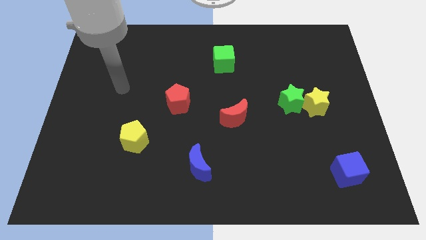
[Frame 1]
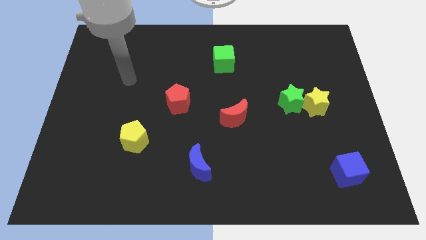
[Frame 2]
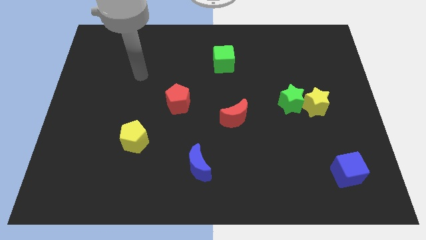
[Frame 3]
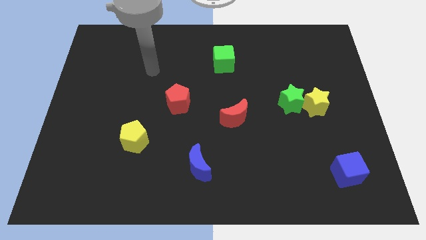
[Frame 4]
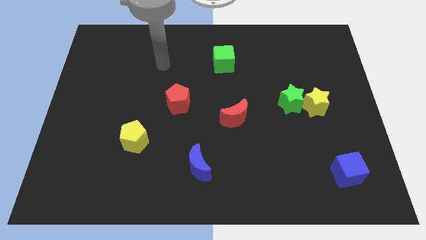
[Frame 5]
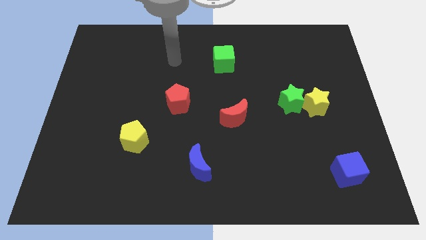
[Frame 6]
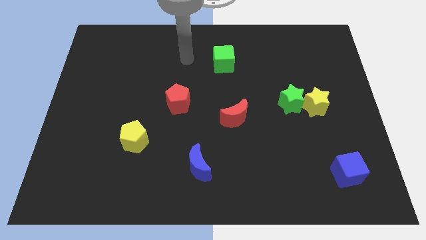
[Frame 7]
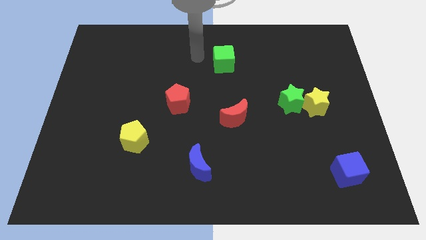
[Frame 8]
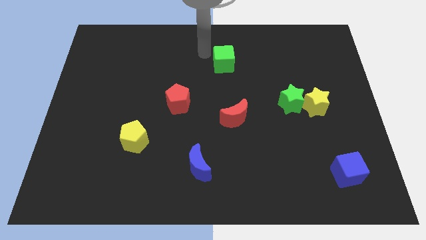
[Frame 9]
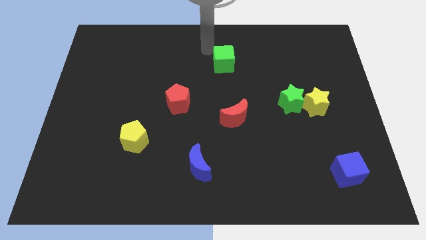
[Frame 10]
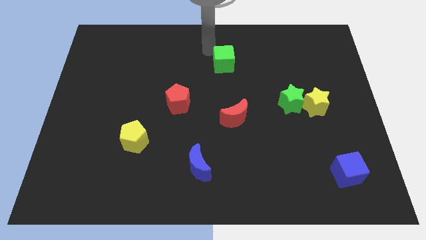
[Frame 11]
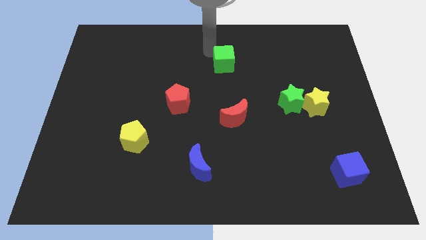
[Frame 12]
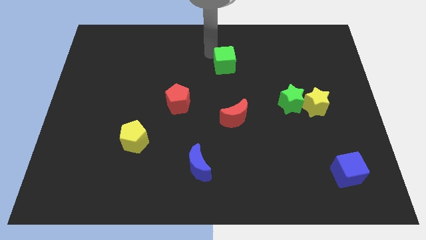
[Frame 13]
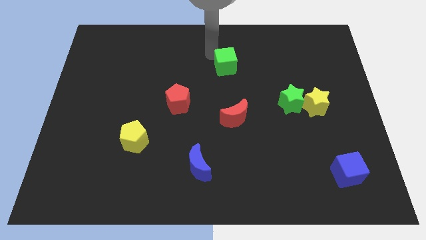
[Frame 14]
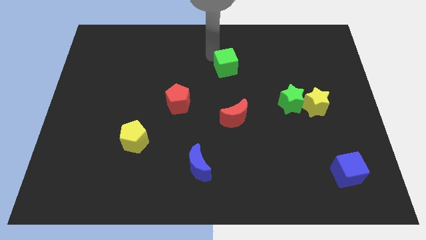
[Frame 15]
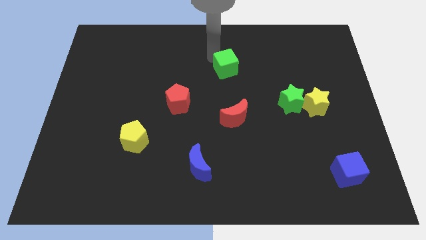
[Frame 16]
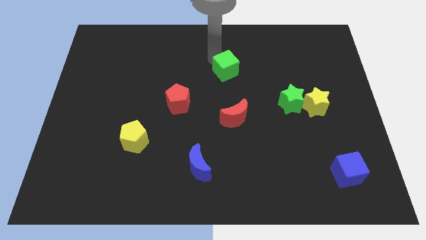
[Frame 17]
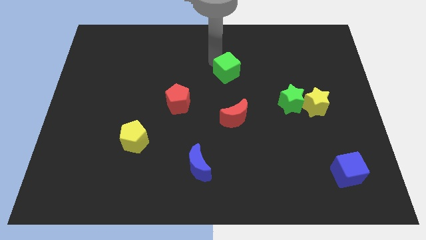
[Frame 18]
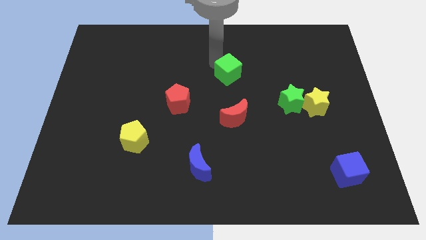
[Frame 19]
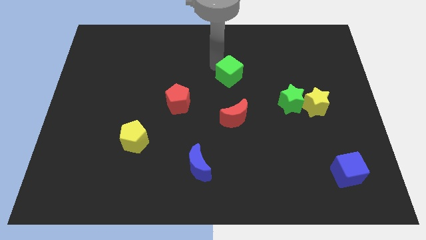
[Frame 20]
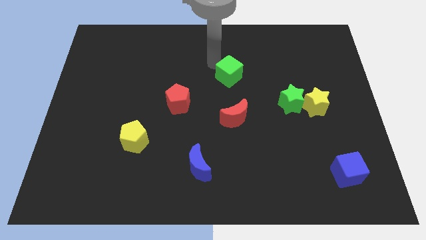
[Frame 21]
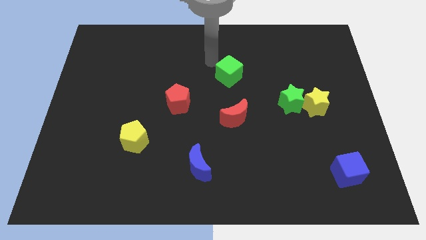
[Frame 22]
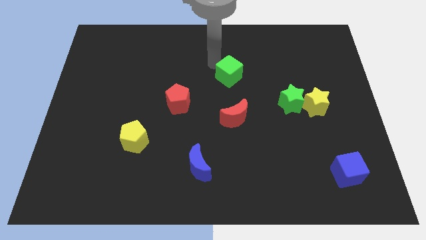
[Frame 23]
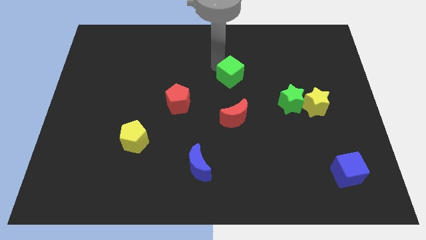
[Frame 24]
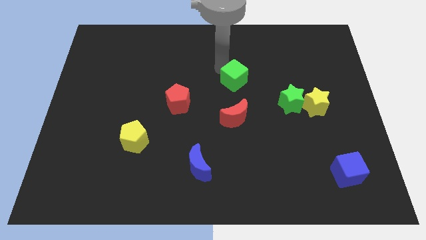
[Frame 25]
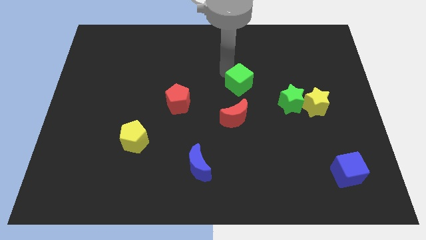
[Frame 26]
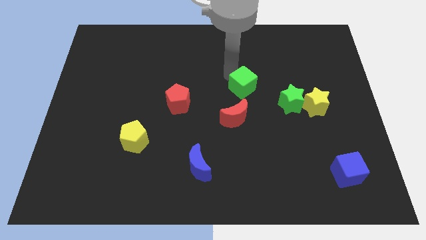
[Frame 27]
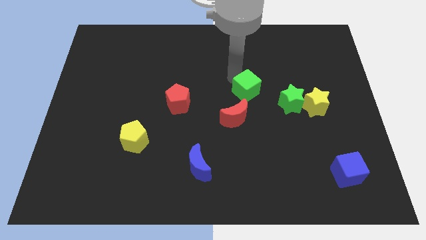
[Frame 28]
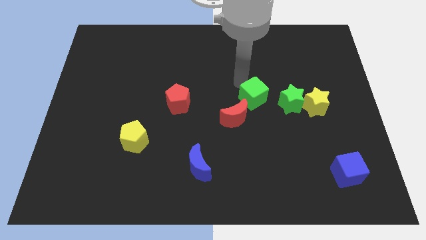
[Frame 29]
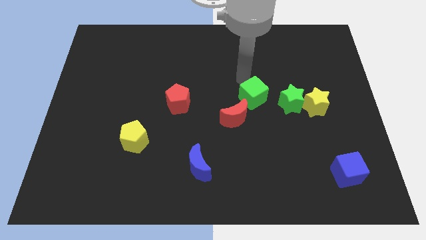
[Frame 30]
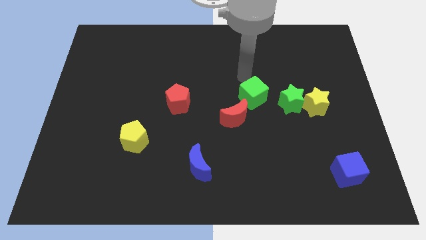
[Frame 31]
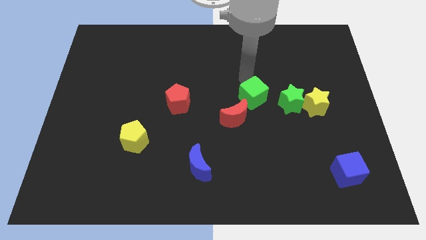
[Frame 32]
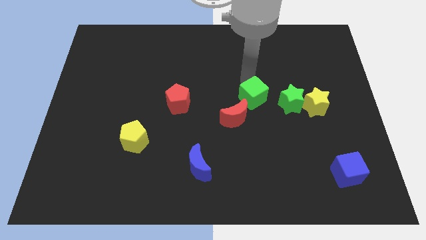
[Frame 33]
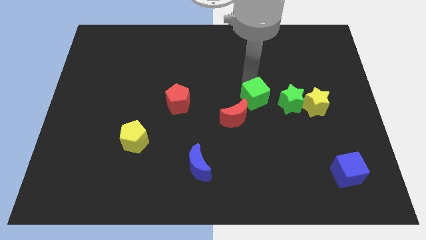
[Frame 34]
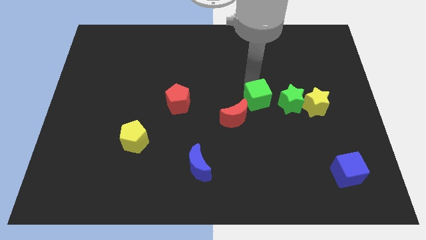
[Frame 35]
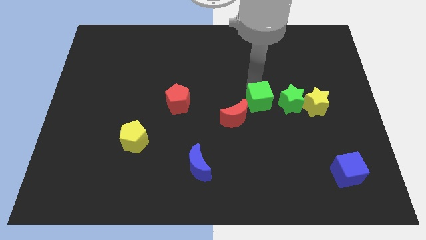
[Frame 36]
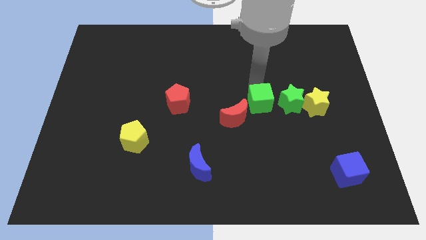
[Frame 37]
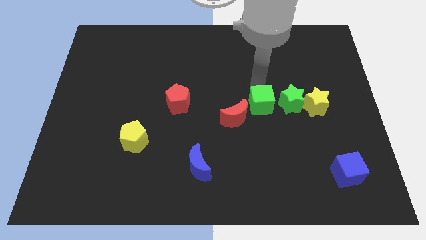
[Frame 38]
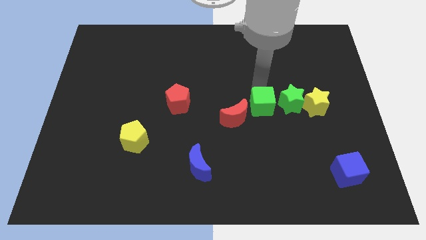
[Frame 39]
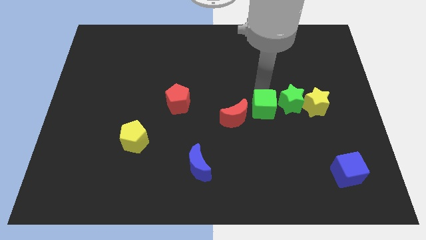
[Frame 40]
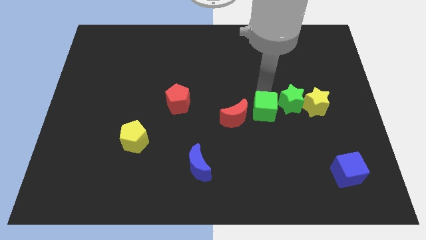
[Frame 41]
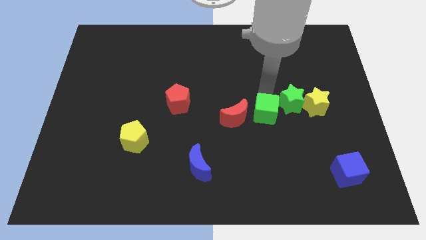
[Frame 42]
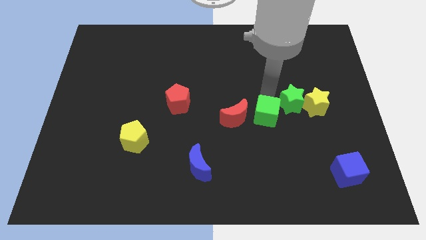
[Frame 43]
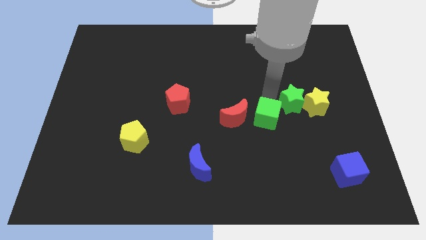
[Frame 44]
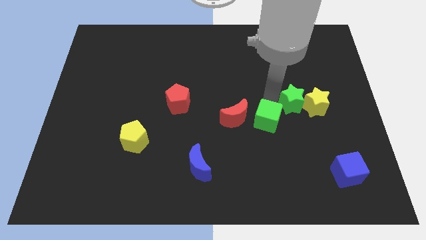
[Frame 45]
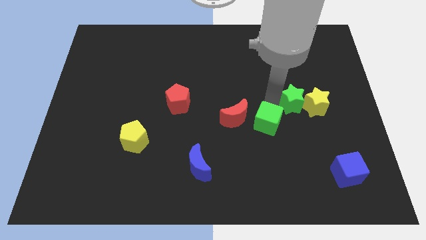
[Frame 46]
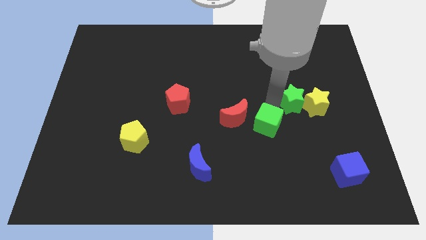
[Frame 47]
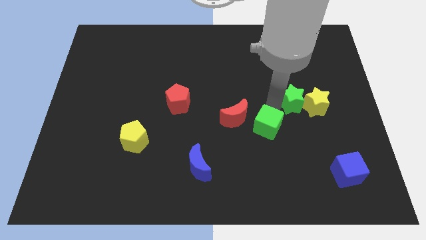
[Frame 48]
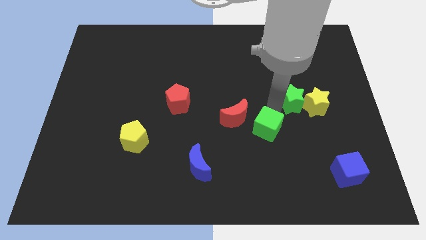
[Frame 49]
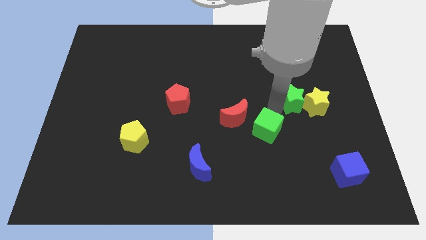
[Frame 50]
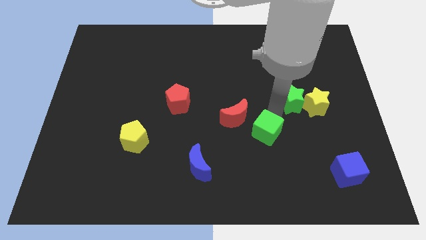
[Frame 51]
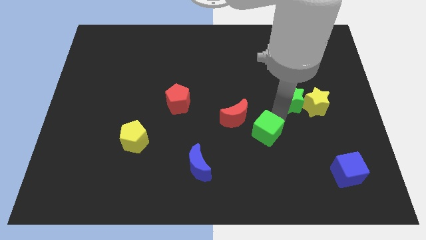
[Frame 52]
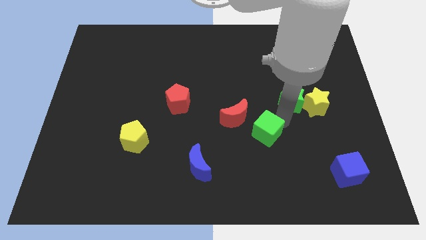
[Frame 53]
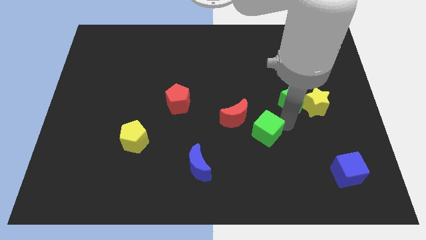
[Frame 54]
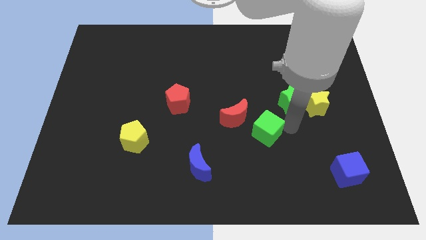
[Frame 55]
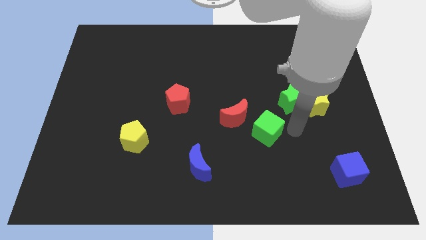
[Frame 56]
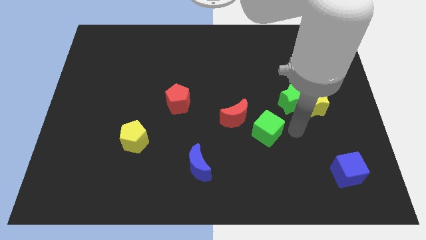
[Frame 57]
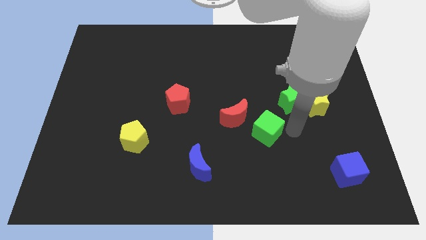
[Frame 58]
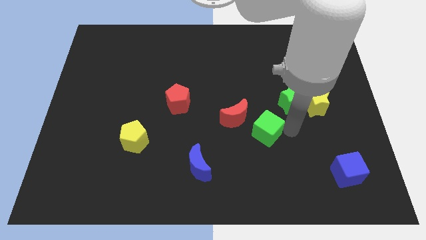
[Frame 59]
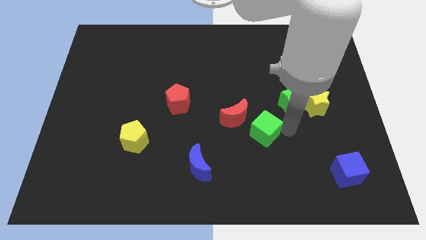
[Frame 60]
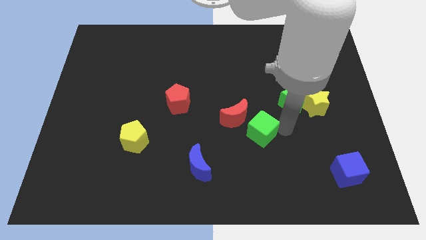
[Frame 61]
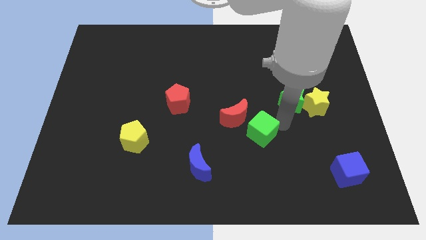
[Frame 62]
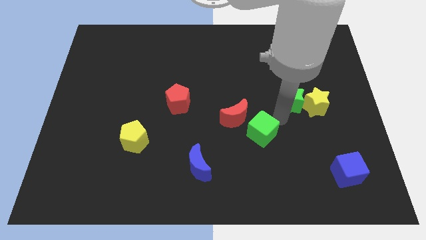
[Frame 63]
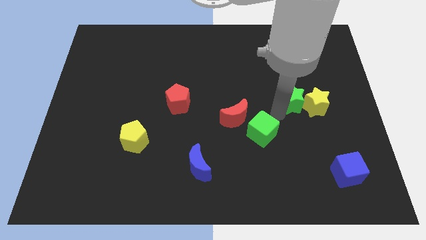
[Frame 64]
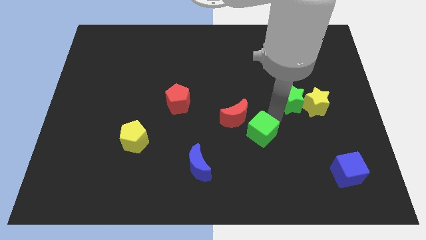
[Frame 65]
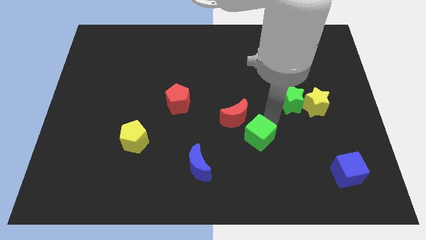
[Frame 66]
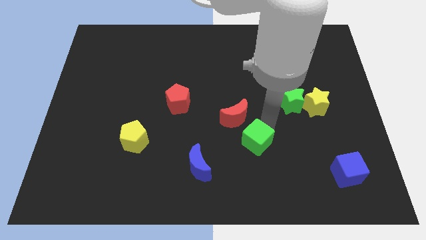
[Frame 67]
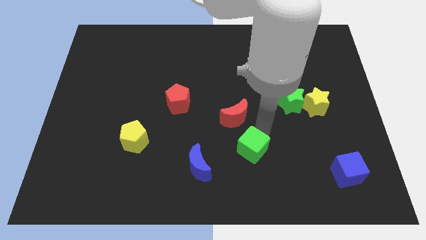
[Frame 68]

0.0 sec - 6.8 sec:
move the green cube to the right of the blue moon

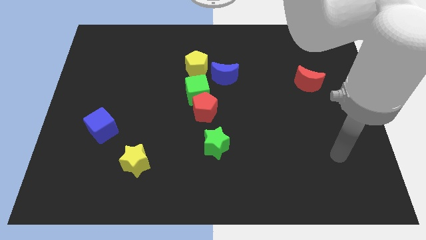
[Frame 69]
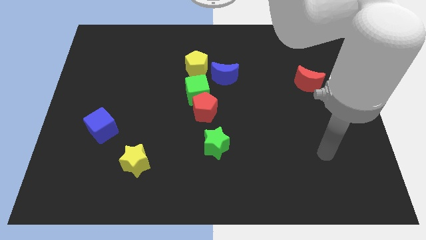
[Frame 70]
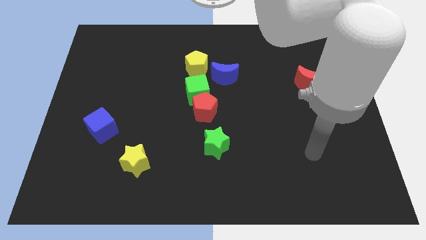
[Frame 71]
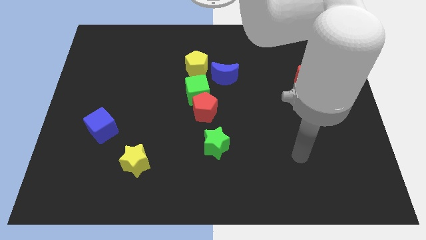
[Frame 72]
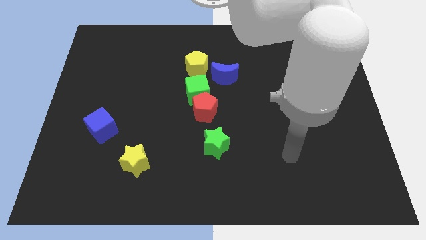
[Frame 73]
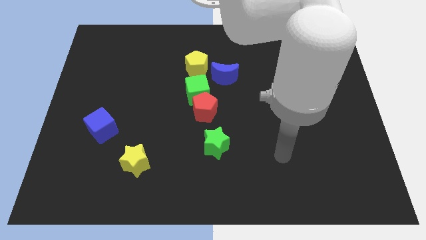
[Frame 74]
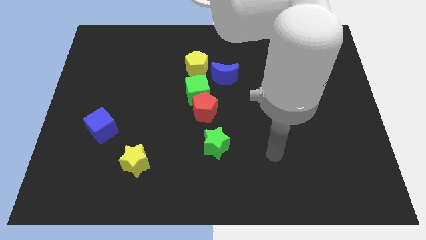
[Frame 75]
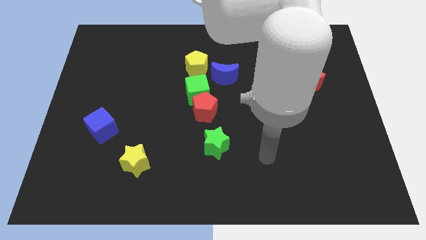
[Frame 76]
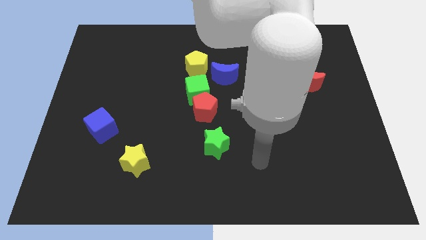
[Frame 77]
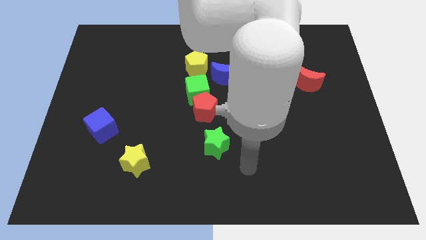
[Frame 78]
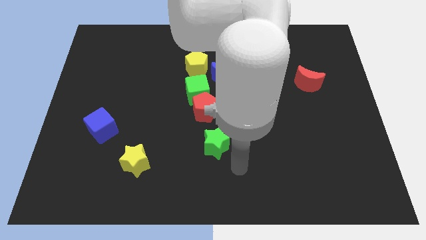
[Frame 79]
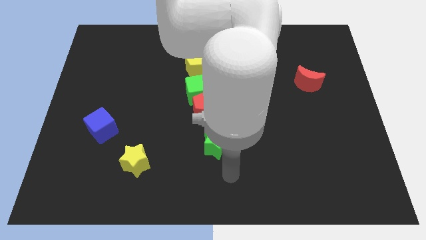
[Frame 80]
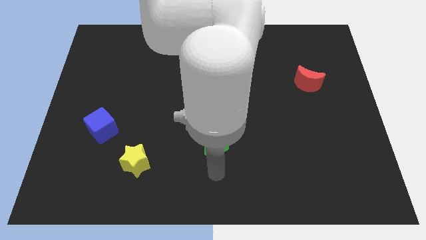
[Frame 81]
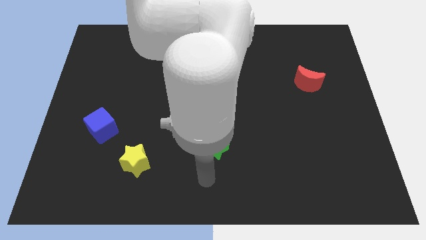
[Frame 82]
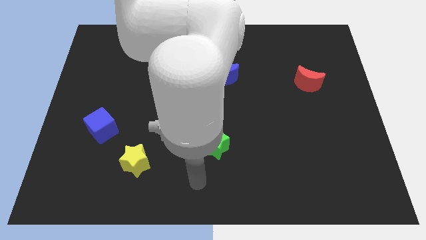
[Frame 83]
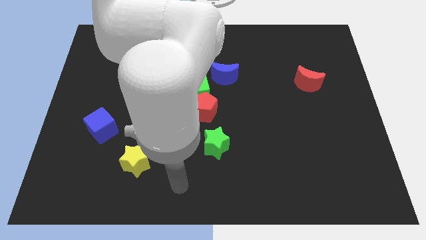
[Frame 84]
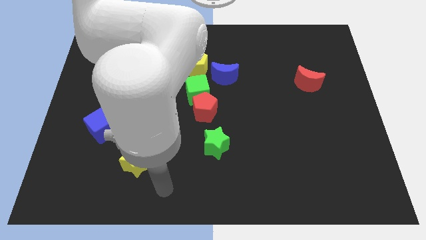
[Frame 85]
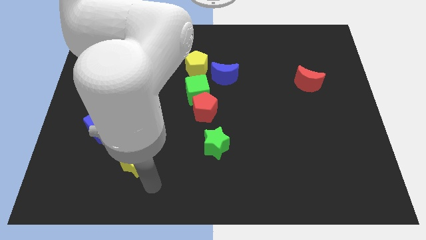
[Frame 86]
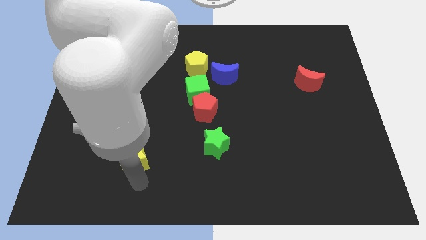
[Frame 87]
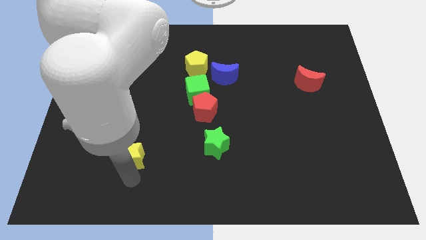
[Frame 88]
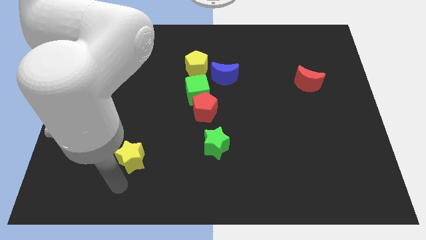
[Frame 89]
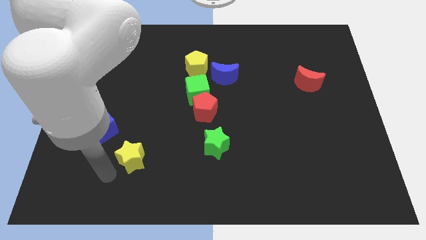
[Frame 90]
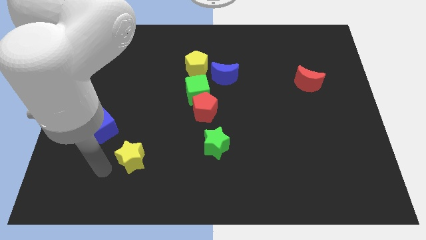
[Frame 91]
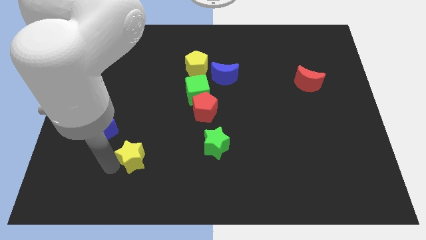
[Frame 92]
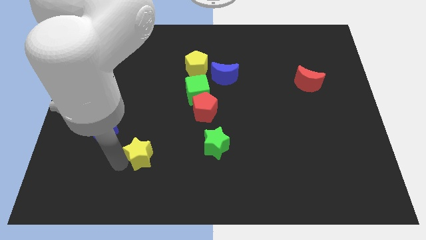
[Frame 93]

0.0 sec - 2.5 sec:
put the yellow star just left of the green star
